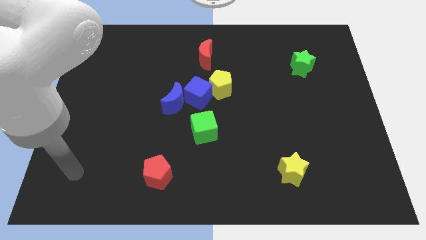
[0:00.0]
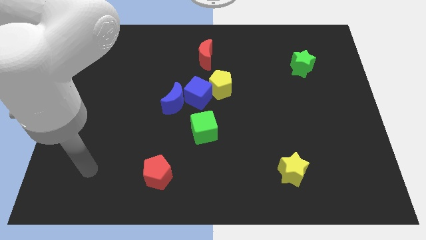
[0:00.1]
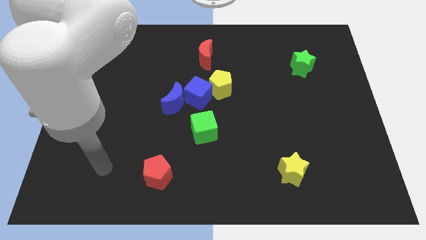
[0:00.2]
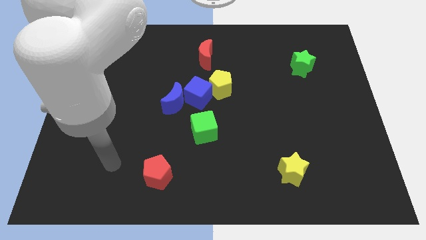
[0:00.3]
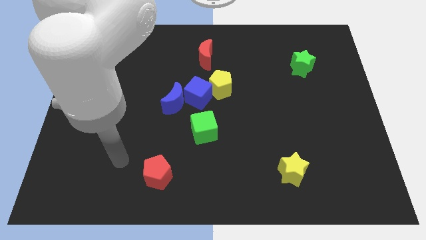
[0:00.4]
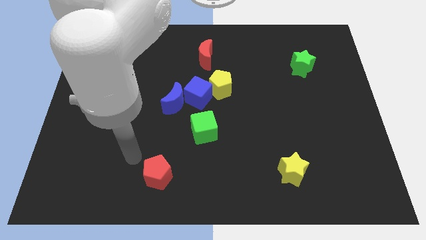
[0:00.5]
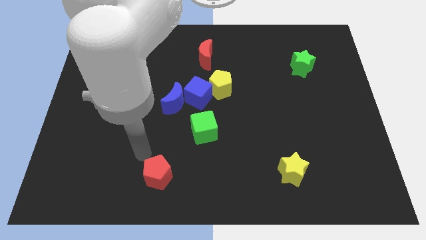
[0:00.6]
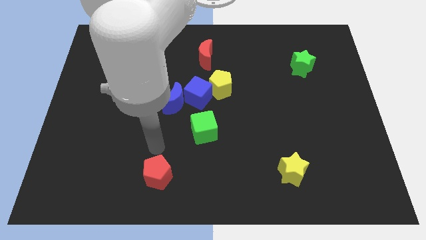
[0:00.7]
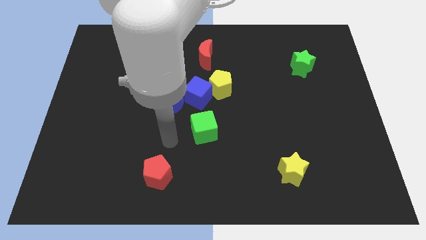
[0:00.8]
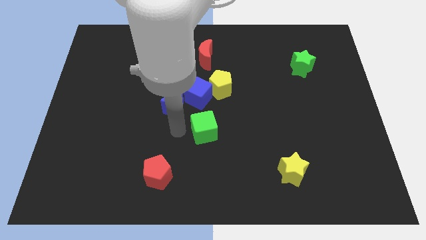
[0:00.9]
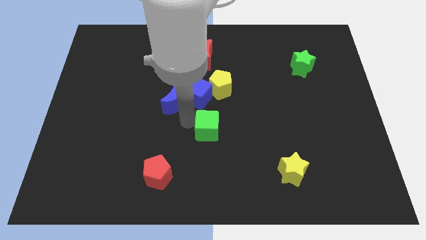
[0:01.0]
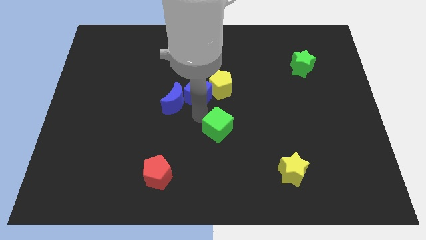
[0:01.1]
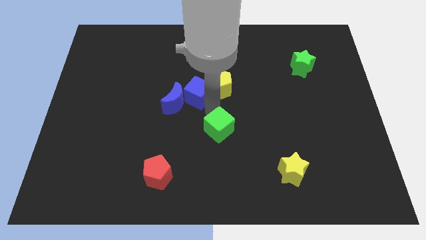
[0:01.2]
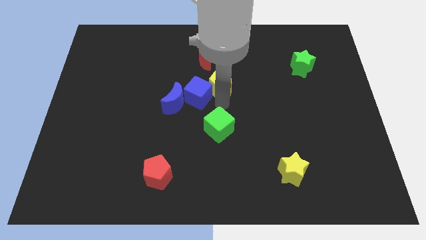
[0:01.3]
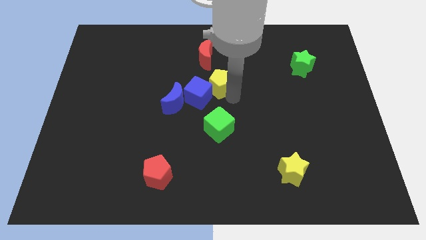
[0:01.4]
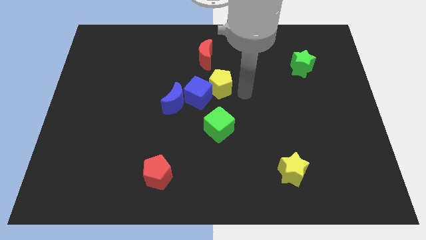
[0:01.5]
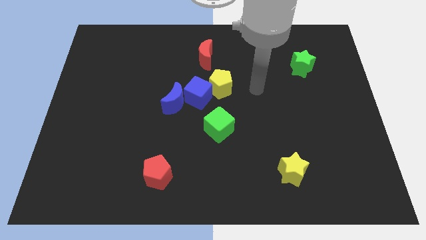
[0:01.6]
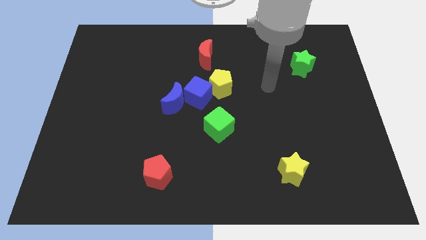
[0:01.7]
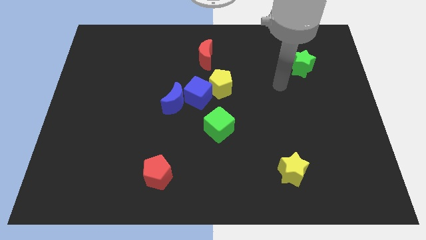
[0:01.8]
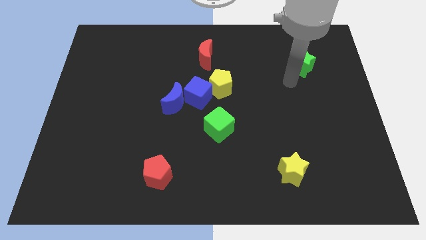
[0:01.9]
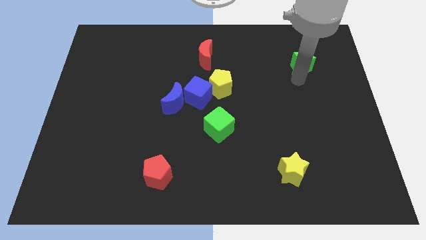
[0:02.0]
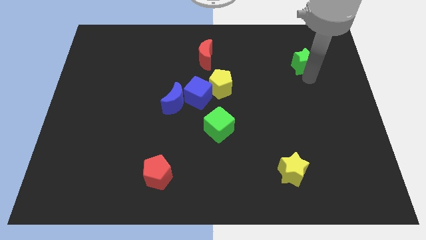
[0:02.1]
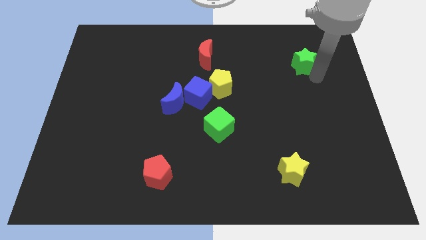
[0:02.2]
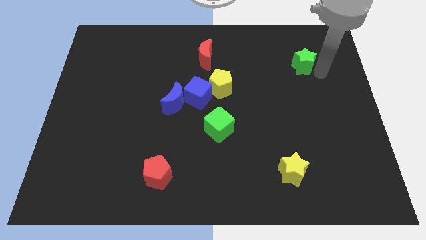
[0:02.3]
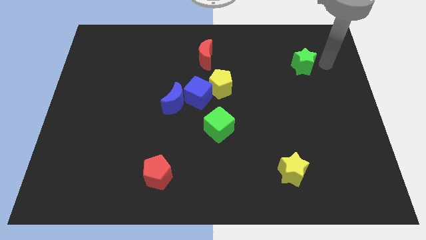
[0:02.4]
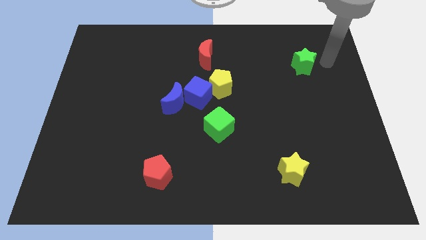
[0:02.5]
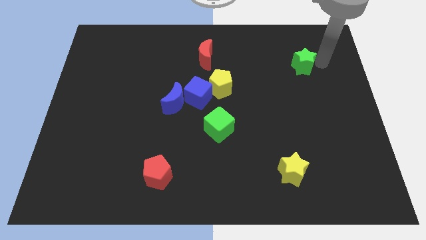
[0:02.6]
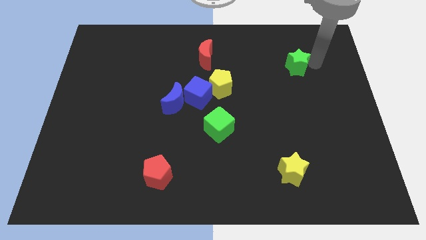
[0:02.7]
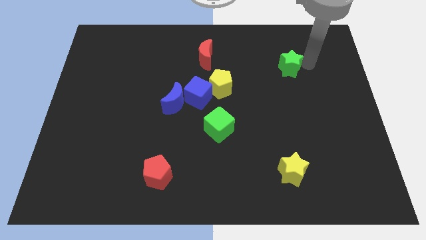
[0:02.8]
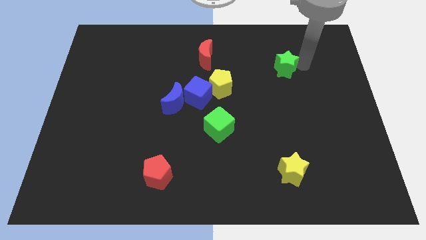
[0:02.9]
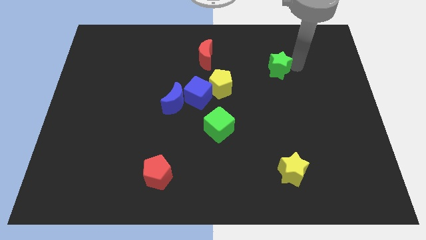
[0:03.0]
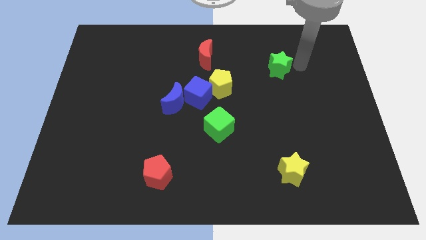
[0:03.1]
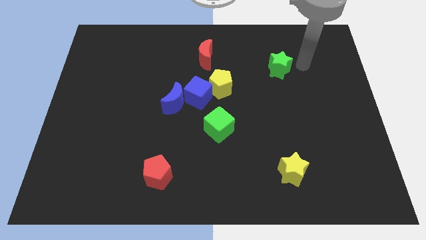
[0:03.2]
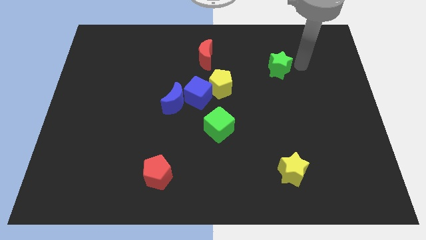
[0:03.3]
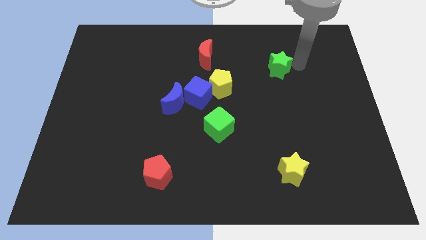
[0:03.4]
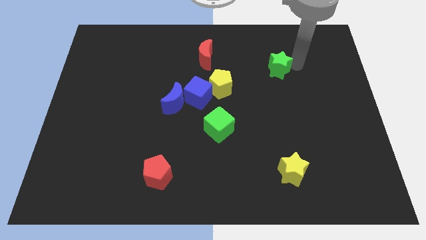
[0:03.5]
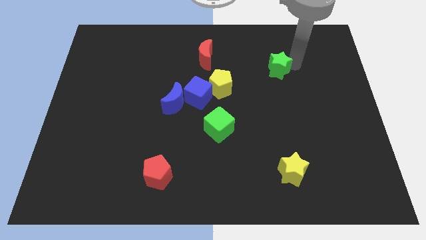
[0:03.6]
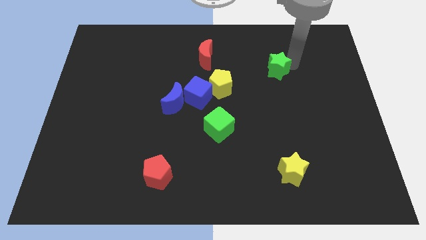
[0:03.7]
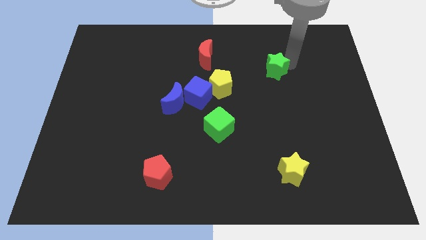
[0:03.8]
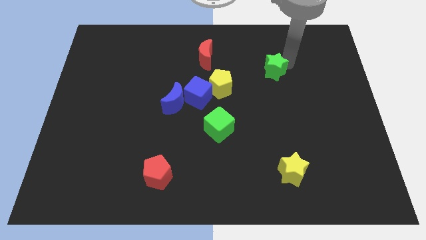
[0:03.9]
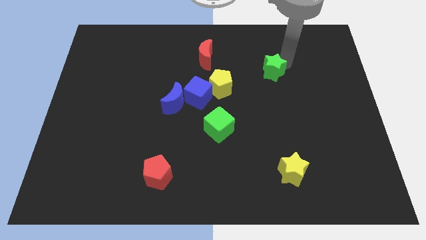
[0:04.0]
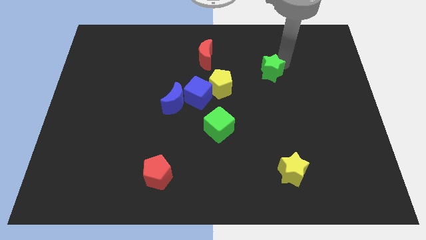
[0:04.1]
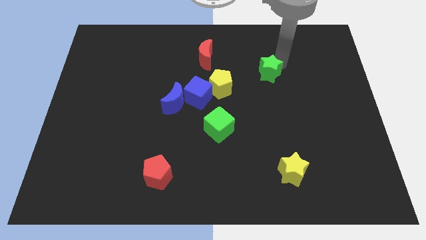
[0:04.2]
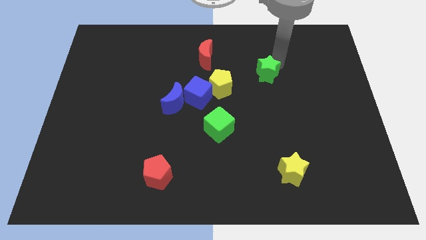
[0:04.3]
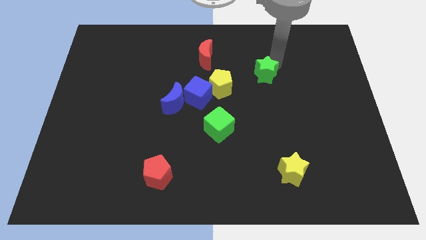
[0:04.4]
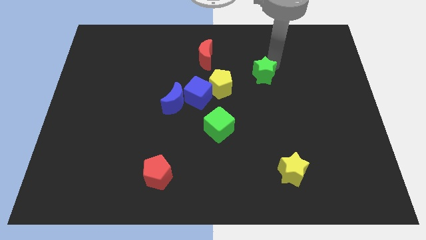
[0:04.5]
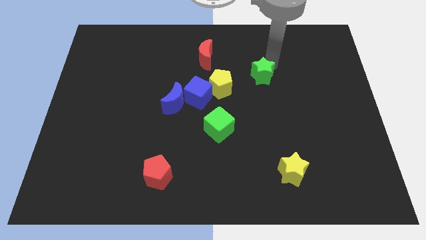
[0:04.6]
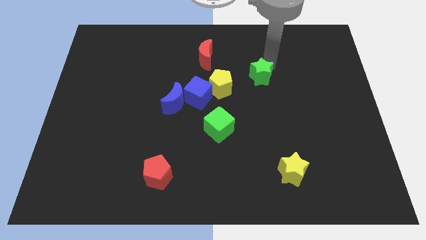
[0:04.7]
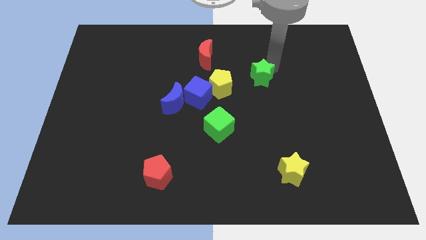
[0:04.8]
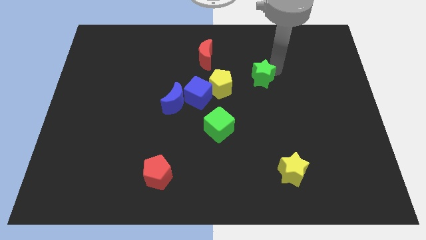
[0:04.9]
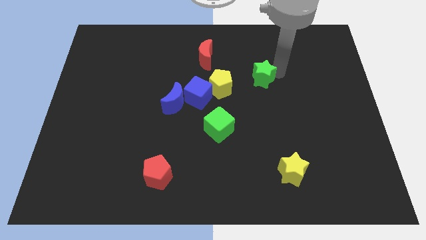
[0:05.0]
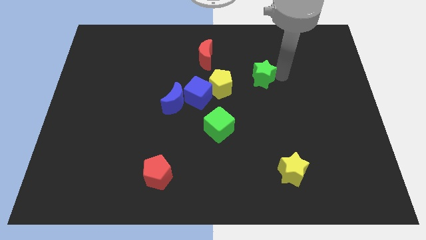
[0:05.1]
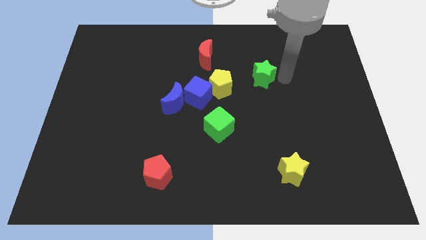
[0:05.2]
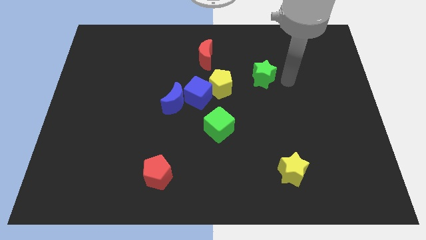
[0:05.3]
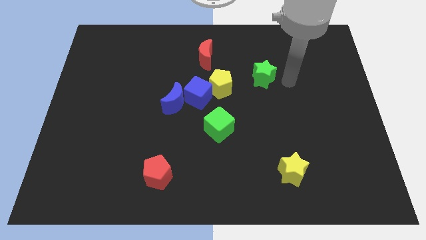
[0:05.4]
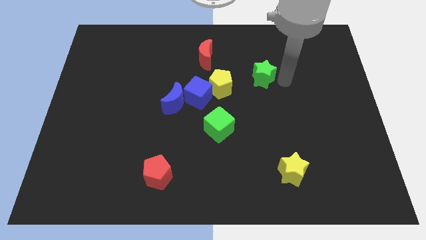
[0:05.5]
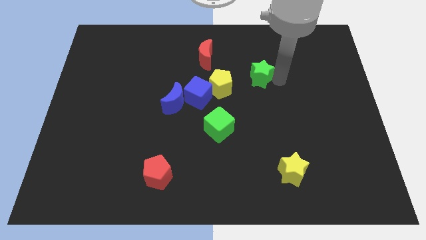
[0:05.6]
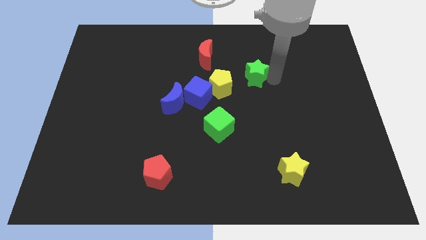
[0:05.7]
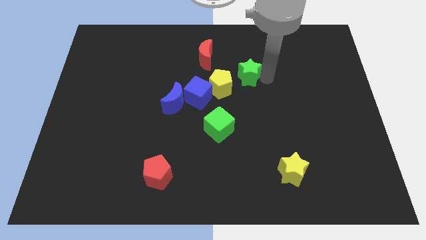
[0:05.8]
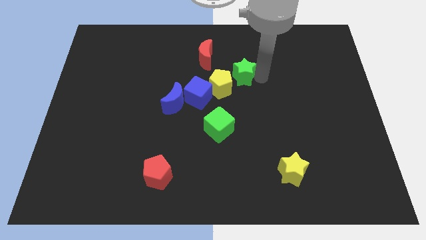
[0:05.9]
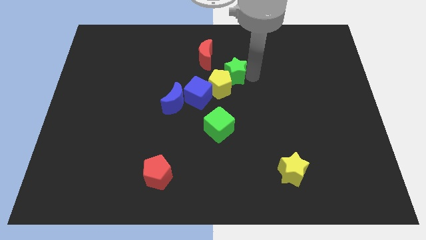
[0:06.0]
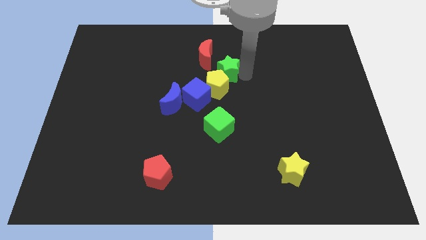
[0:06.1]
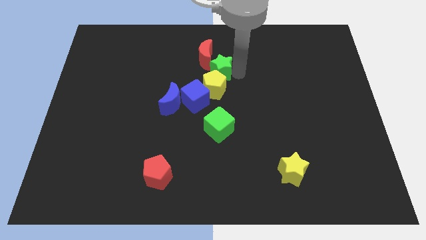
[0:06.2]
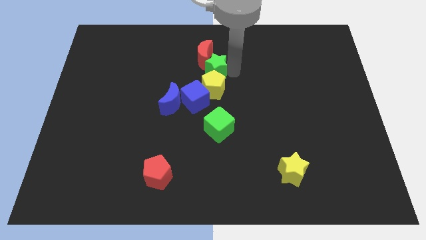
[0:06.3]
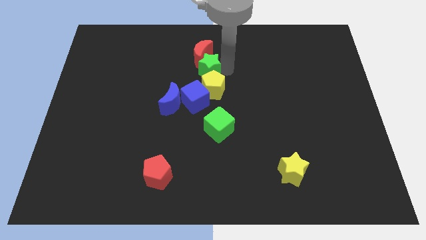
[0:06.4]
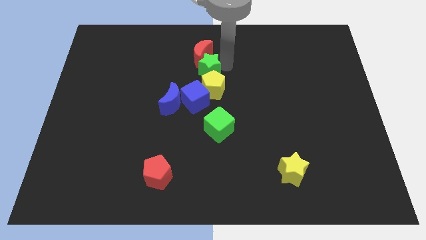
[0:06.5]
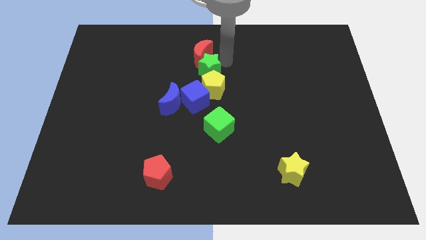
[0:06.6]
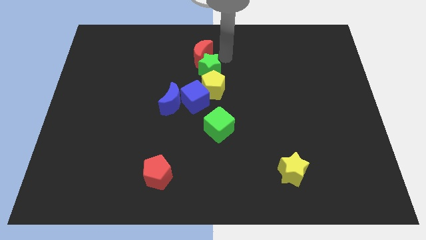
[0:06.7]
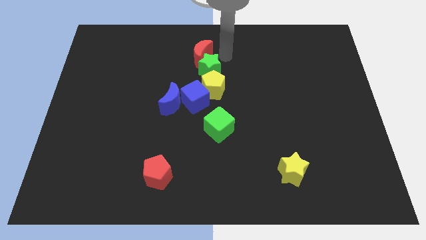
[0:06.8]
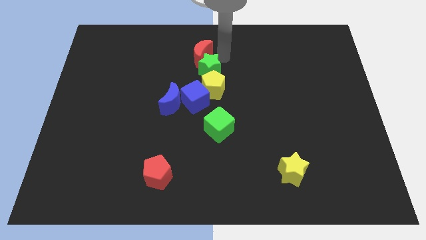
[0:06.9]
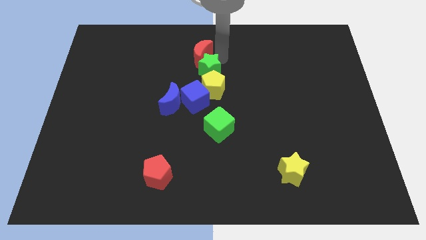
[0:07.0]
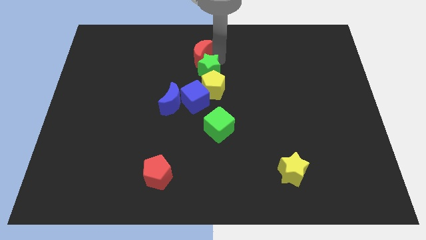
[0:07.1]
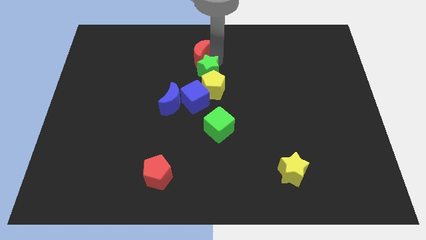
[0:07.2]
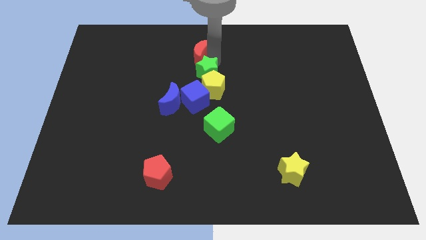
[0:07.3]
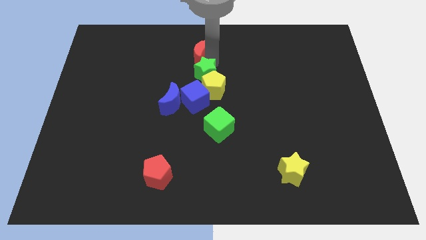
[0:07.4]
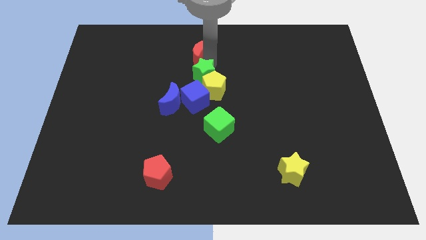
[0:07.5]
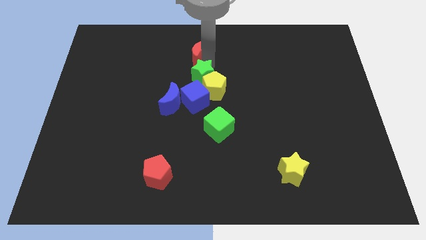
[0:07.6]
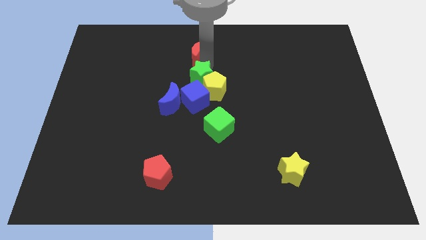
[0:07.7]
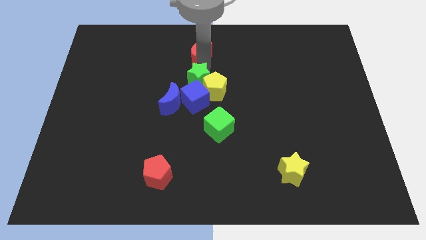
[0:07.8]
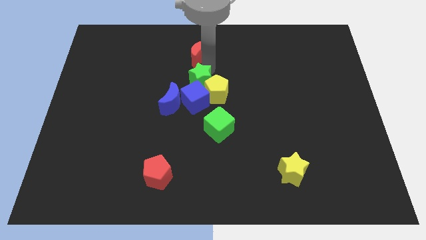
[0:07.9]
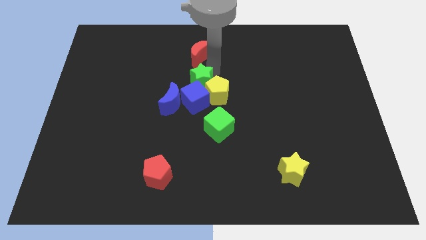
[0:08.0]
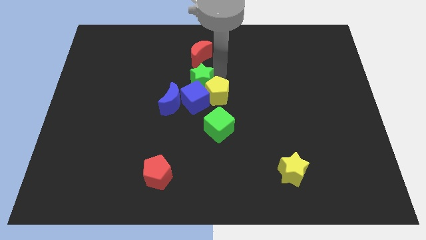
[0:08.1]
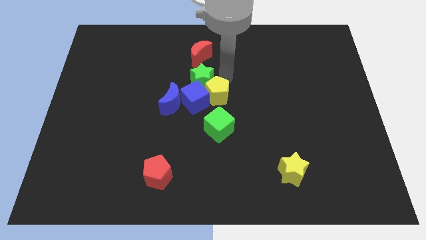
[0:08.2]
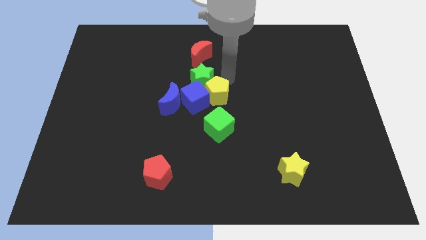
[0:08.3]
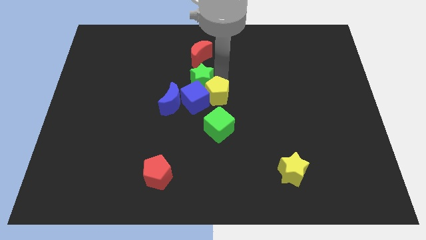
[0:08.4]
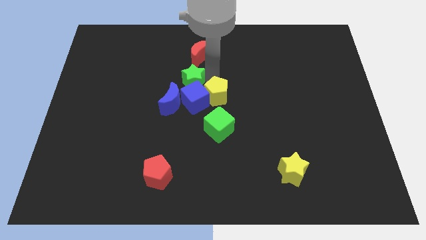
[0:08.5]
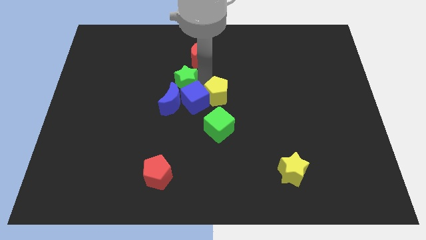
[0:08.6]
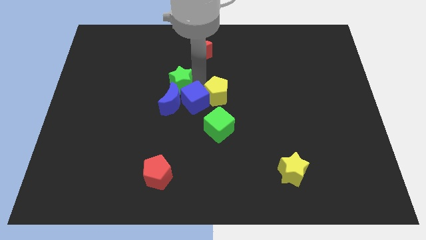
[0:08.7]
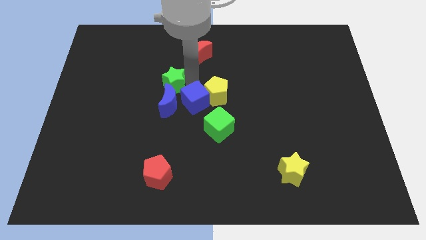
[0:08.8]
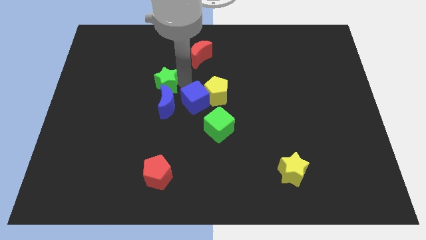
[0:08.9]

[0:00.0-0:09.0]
slide the green star to the top left of the blue moon
